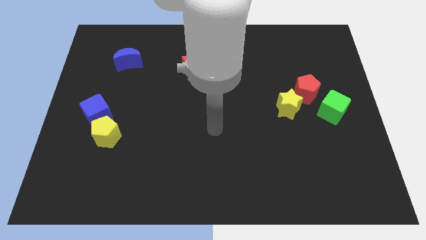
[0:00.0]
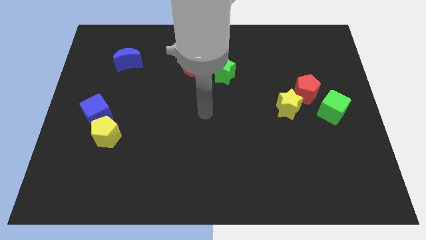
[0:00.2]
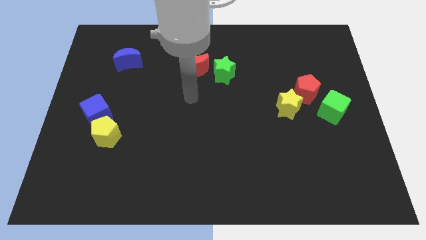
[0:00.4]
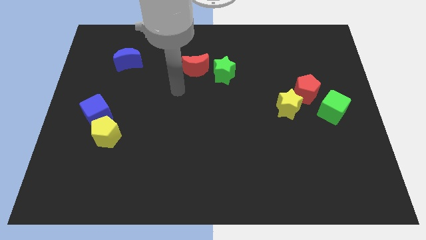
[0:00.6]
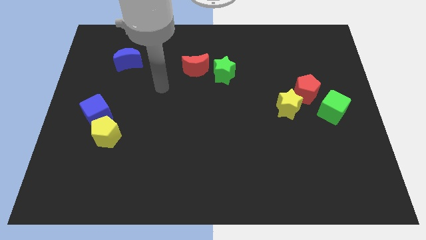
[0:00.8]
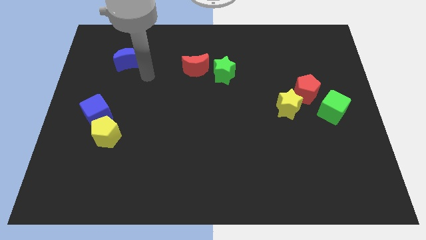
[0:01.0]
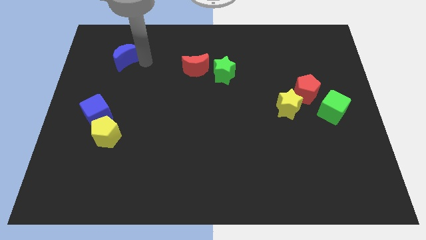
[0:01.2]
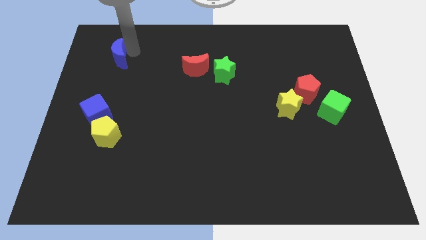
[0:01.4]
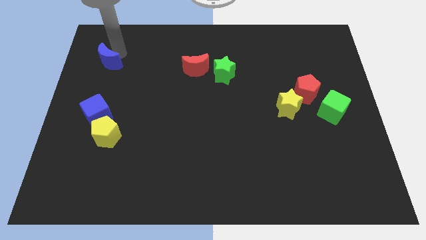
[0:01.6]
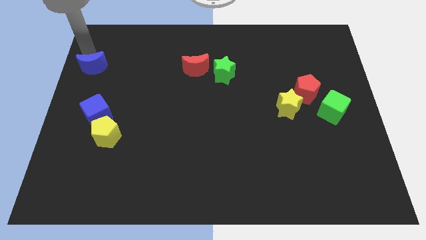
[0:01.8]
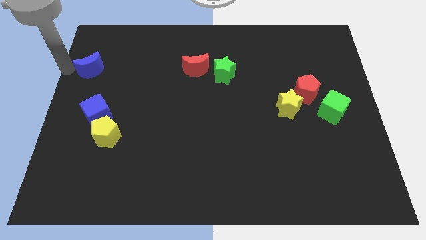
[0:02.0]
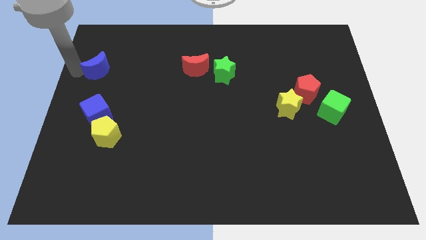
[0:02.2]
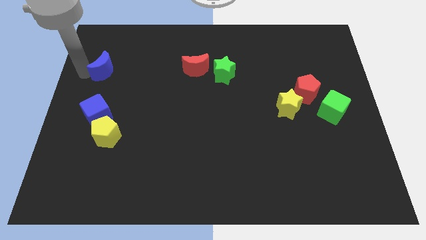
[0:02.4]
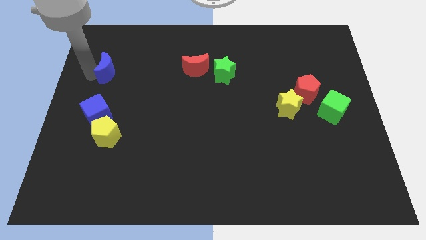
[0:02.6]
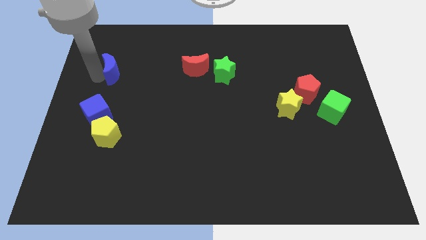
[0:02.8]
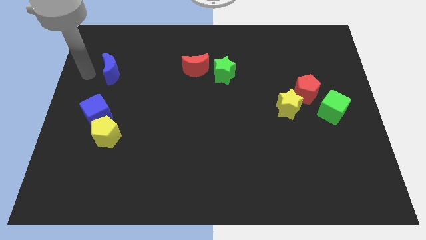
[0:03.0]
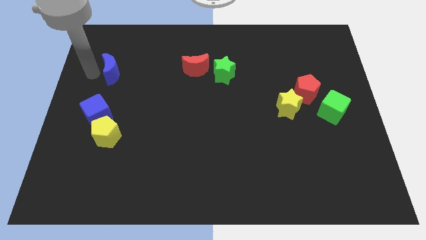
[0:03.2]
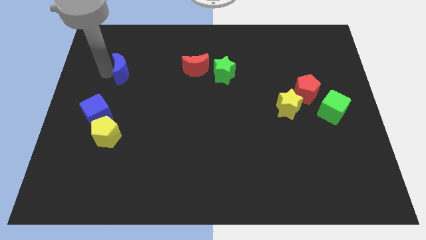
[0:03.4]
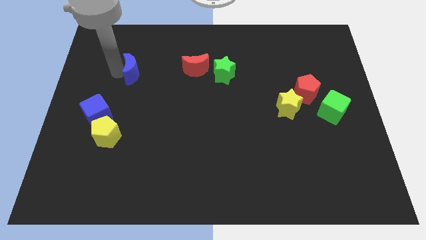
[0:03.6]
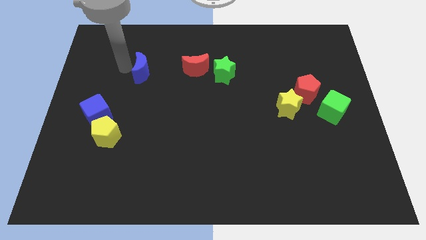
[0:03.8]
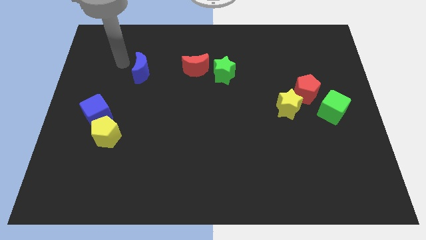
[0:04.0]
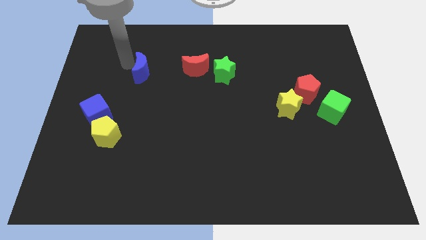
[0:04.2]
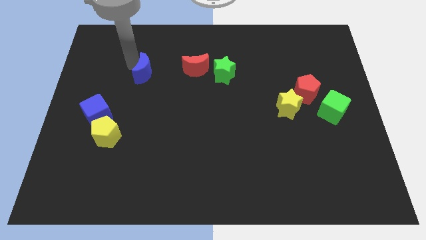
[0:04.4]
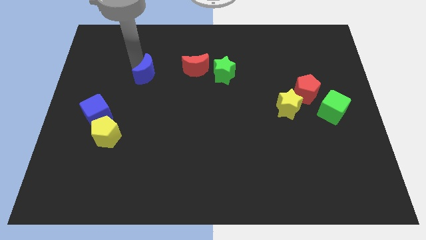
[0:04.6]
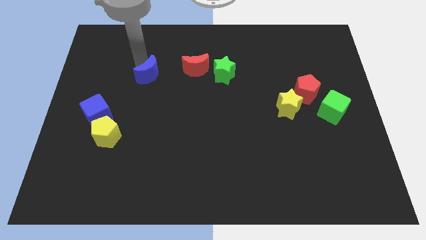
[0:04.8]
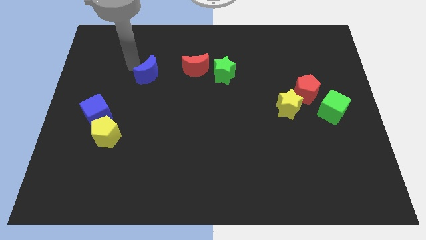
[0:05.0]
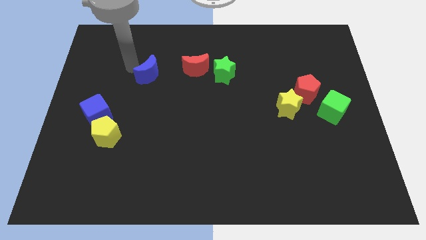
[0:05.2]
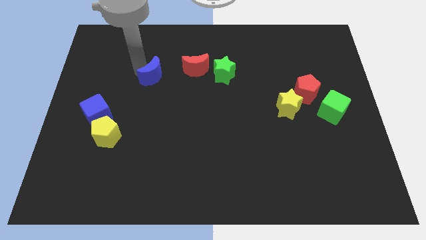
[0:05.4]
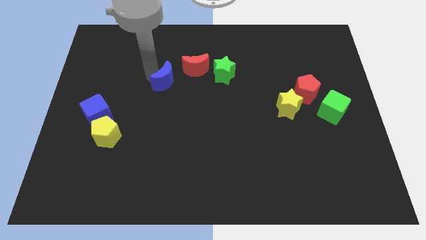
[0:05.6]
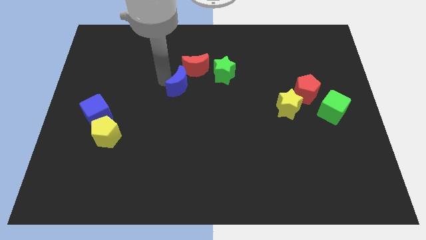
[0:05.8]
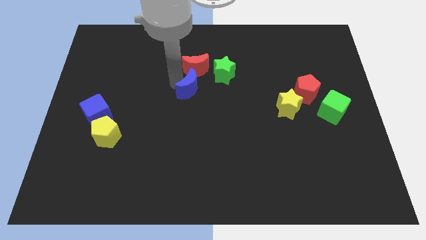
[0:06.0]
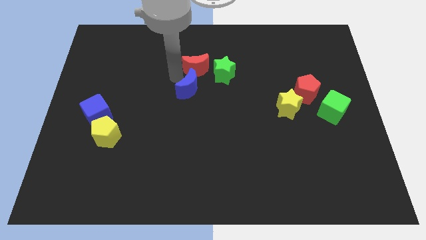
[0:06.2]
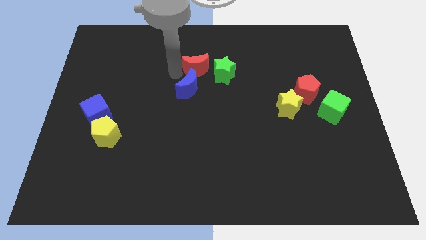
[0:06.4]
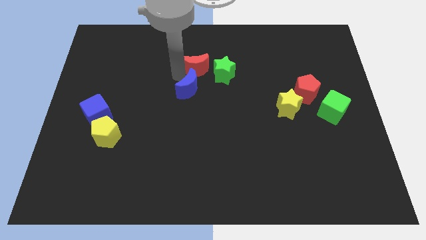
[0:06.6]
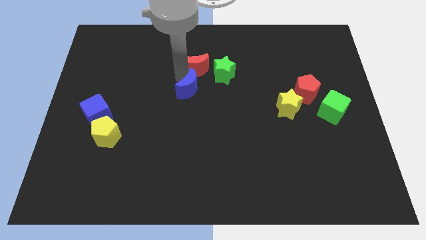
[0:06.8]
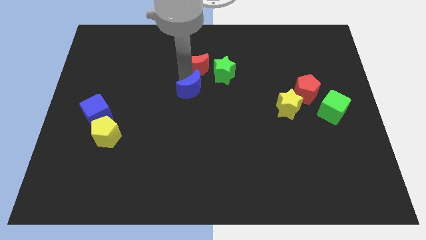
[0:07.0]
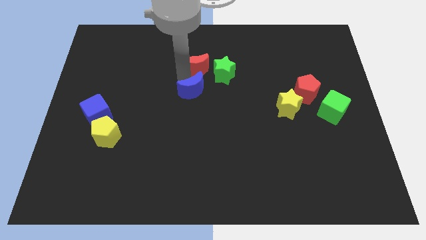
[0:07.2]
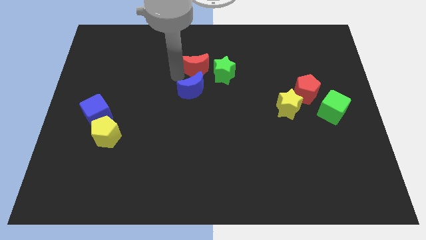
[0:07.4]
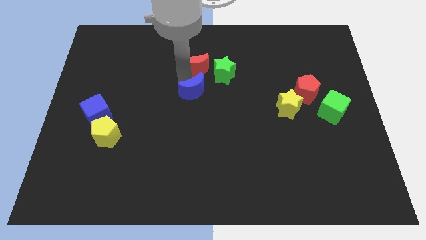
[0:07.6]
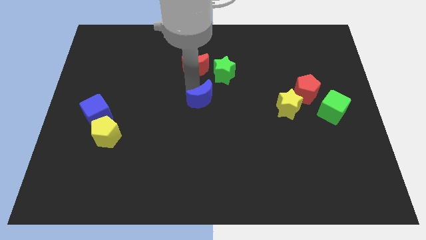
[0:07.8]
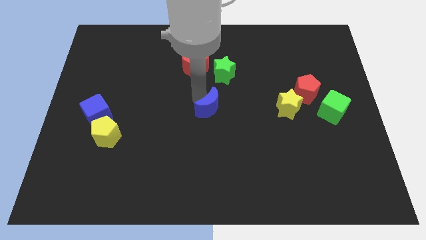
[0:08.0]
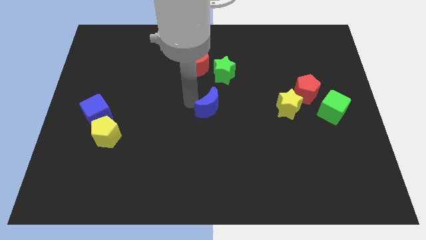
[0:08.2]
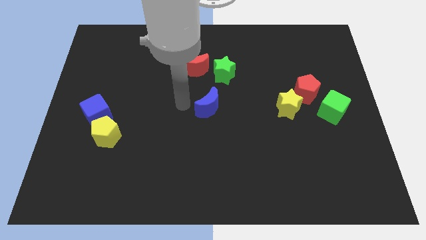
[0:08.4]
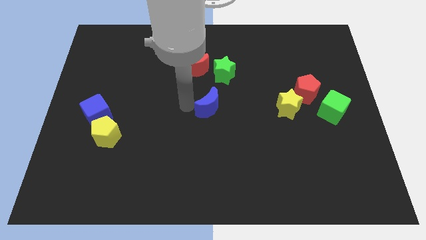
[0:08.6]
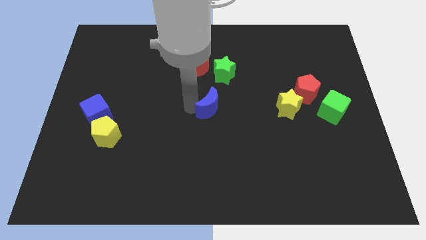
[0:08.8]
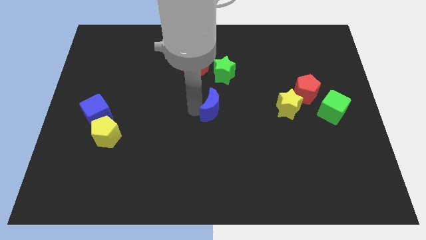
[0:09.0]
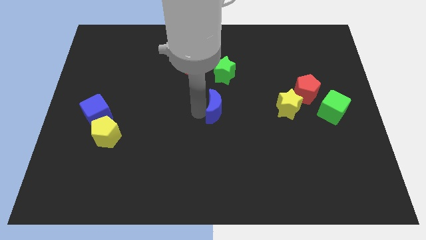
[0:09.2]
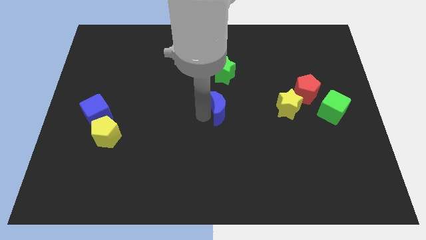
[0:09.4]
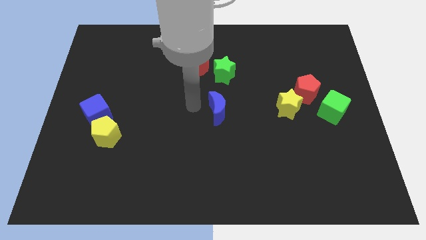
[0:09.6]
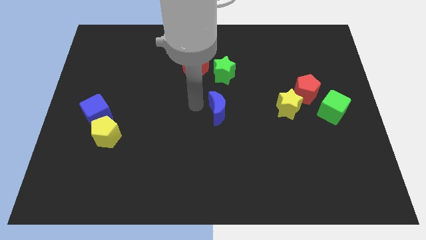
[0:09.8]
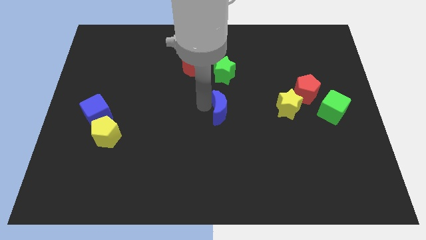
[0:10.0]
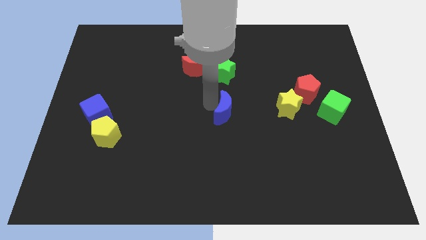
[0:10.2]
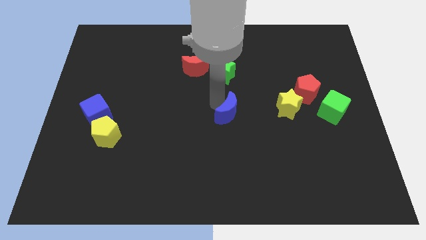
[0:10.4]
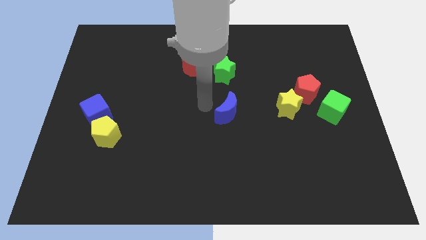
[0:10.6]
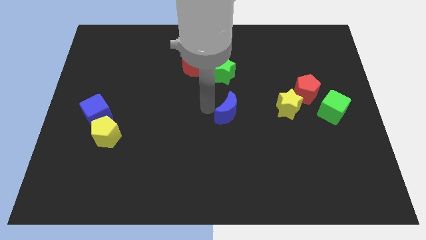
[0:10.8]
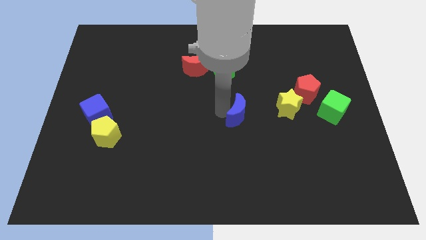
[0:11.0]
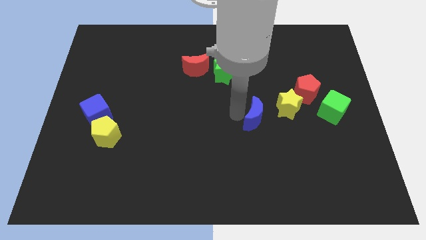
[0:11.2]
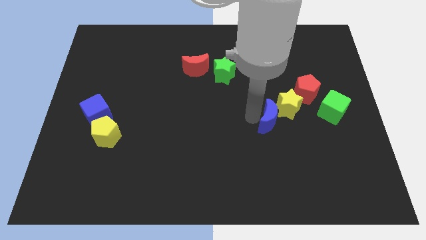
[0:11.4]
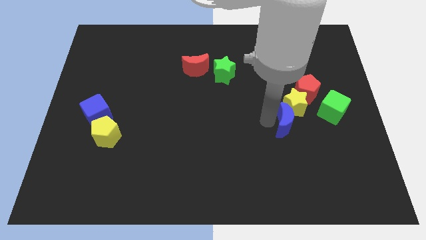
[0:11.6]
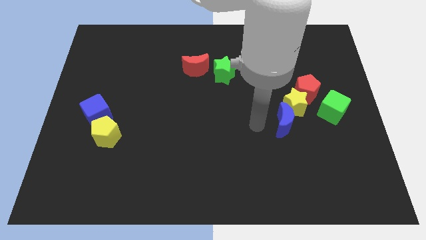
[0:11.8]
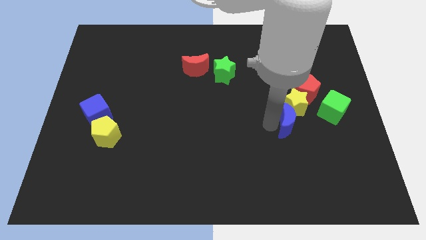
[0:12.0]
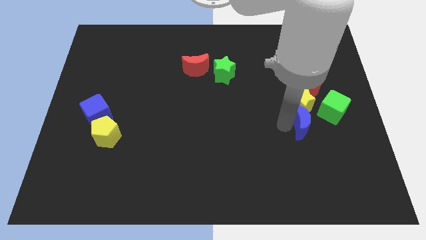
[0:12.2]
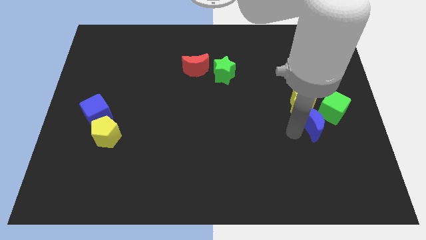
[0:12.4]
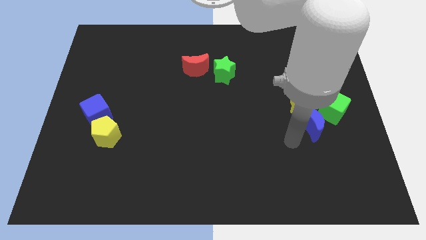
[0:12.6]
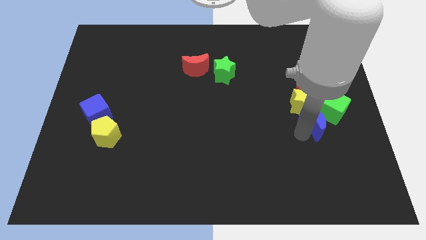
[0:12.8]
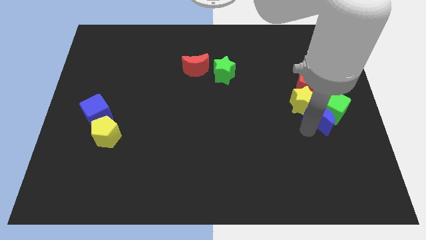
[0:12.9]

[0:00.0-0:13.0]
push the blue moon next to the green cube
